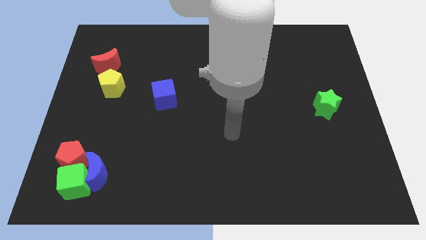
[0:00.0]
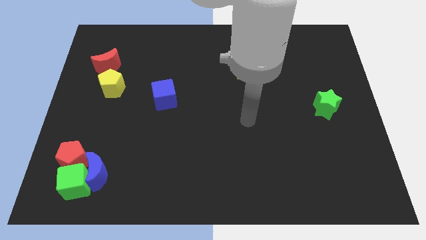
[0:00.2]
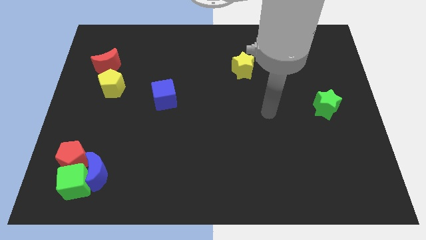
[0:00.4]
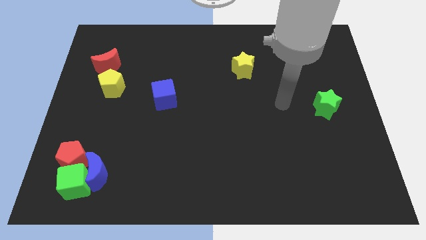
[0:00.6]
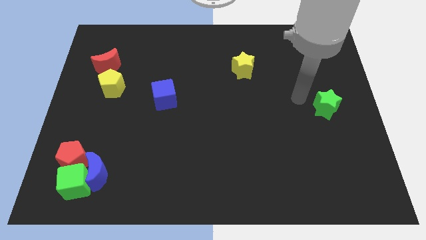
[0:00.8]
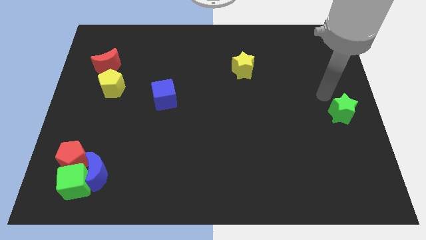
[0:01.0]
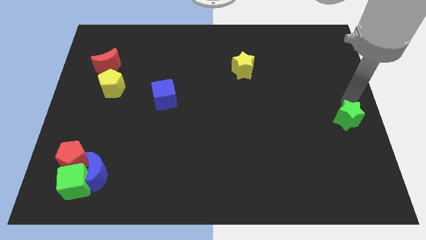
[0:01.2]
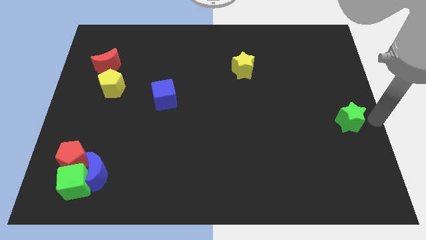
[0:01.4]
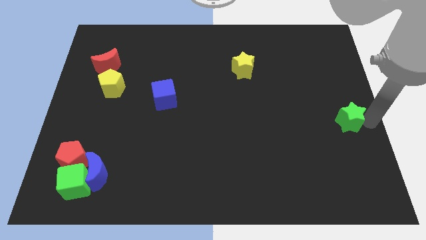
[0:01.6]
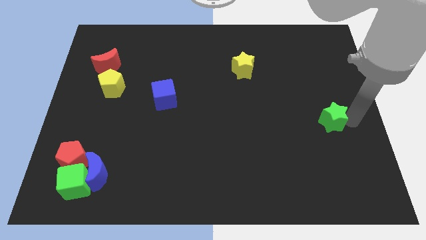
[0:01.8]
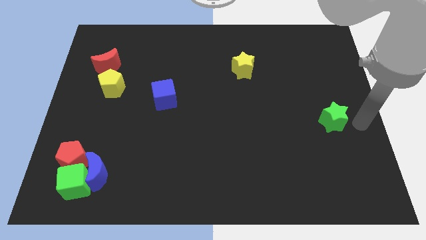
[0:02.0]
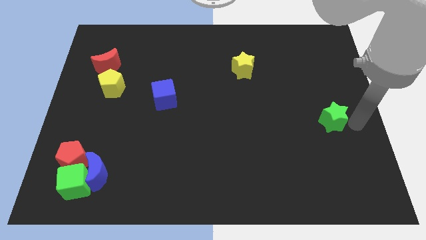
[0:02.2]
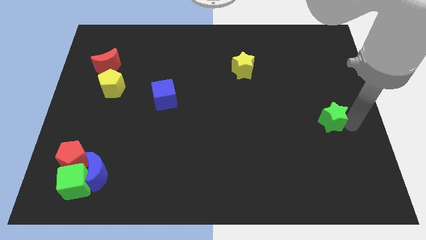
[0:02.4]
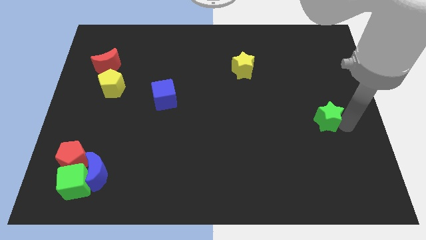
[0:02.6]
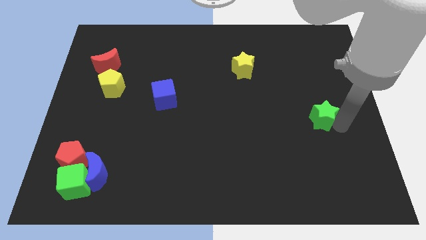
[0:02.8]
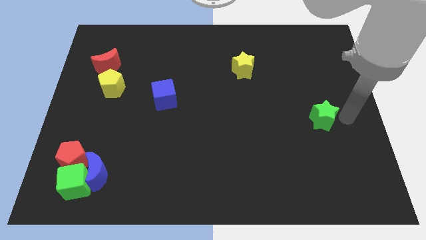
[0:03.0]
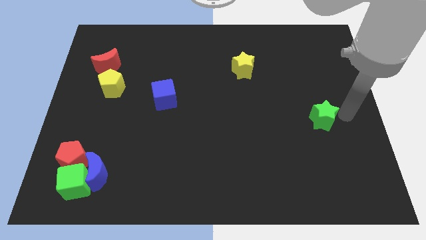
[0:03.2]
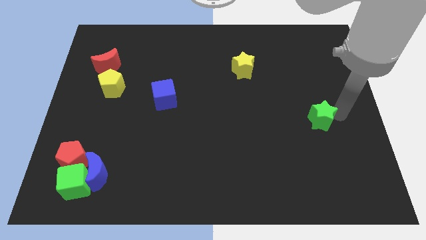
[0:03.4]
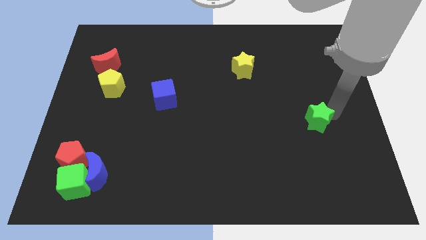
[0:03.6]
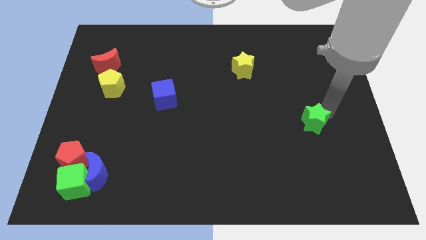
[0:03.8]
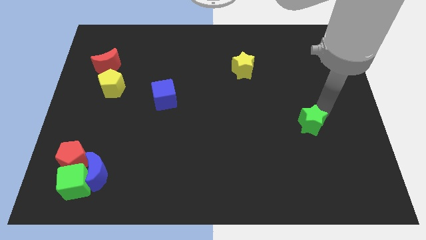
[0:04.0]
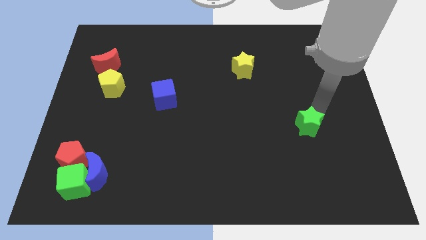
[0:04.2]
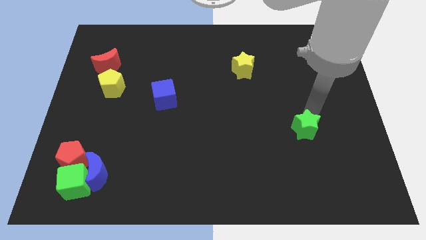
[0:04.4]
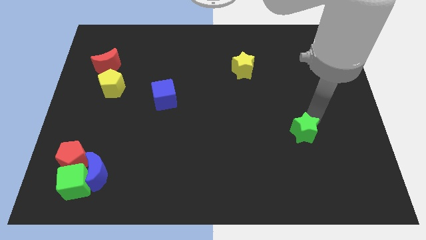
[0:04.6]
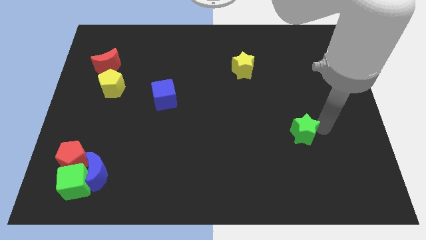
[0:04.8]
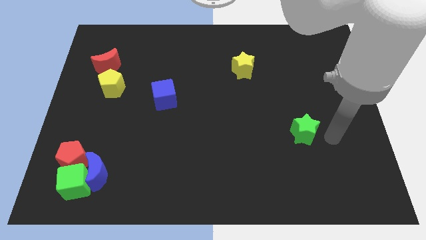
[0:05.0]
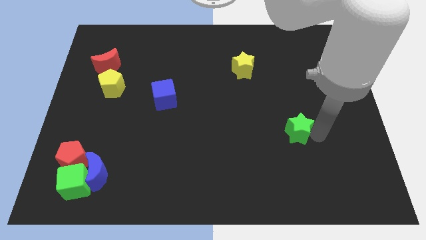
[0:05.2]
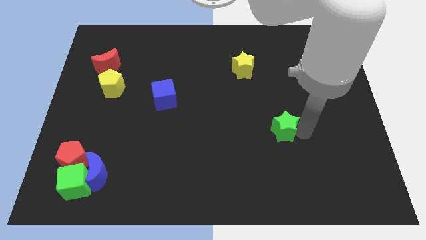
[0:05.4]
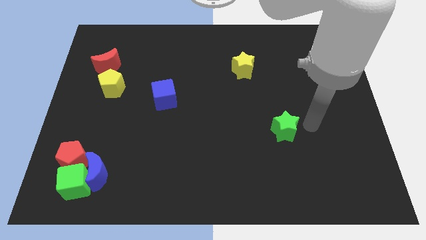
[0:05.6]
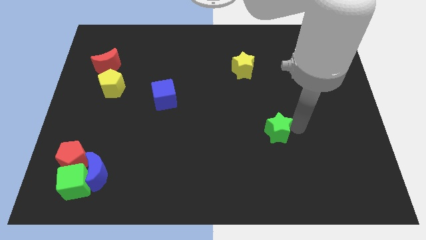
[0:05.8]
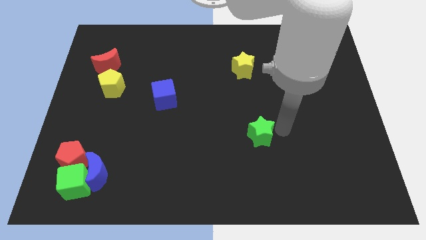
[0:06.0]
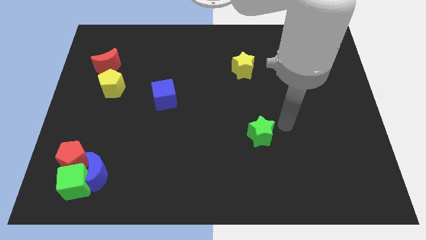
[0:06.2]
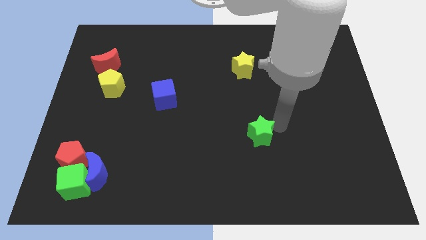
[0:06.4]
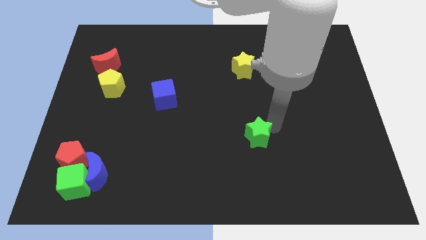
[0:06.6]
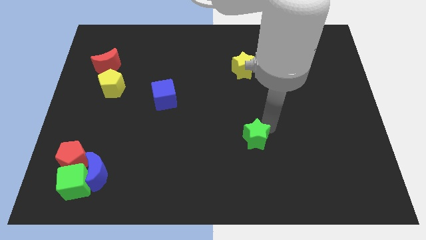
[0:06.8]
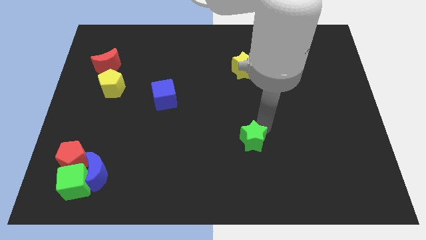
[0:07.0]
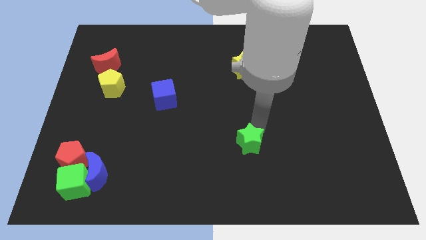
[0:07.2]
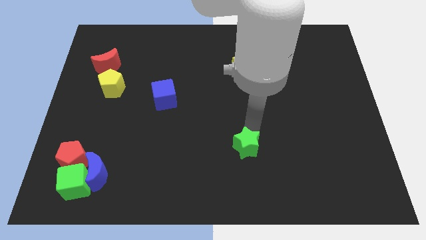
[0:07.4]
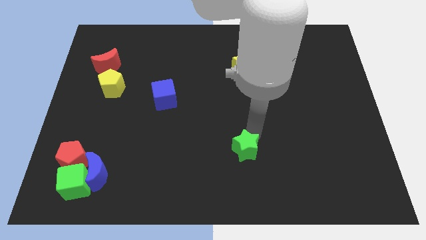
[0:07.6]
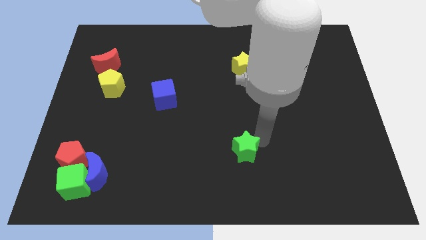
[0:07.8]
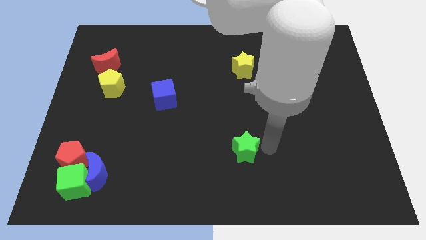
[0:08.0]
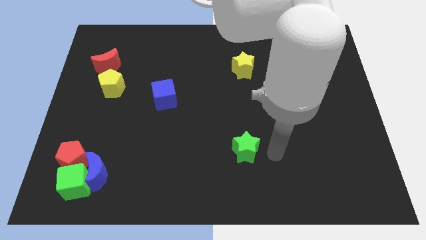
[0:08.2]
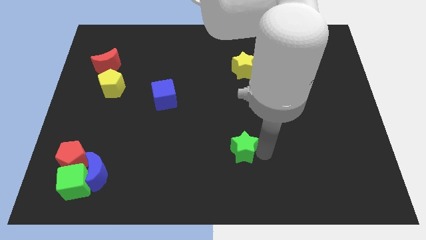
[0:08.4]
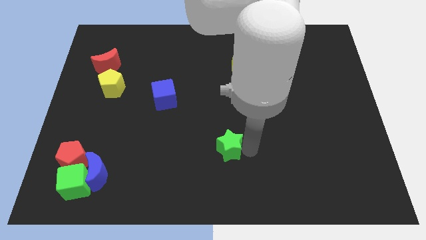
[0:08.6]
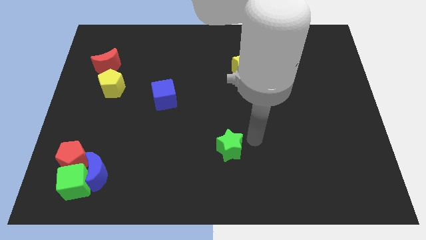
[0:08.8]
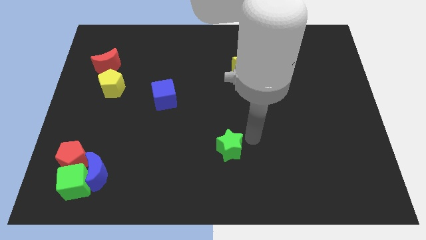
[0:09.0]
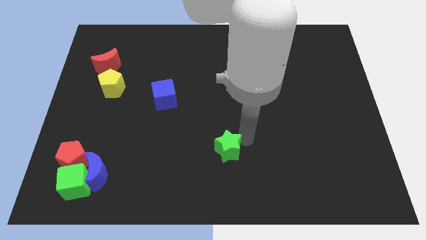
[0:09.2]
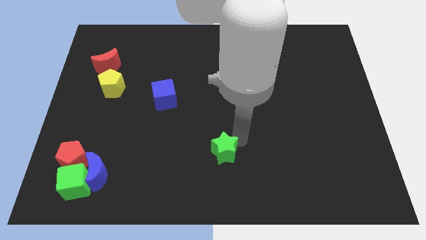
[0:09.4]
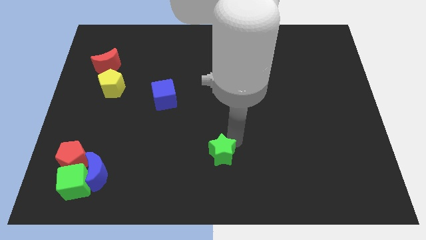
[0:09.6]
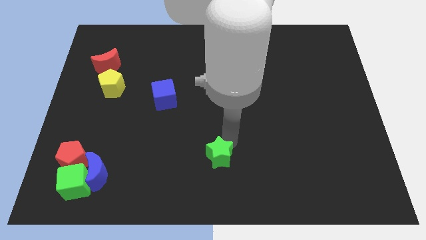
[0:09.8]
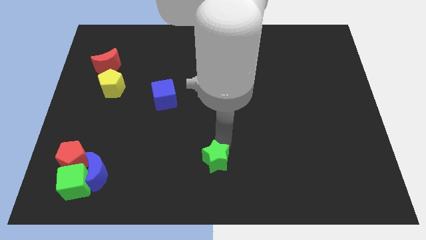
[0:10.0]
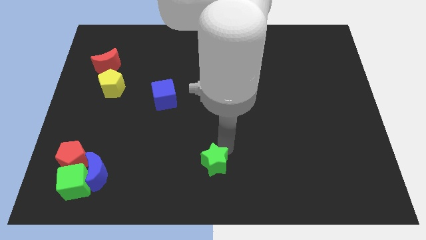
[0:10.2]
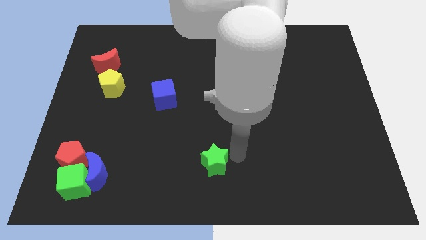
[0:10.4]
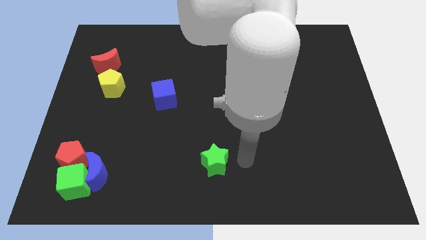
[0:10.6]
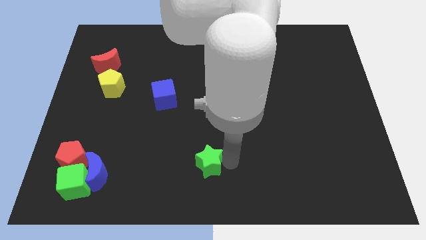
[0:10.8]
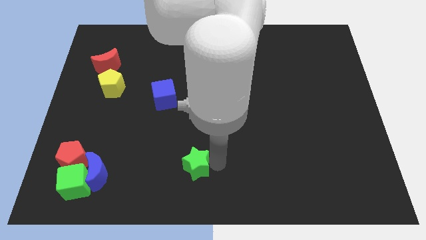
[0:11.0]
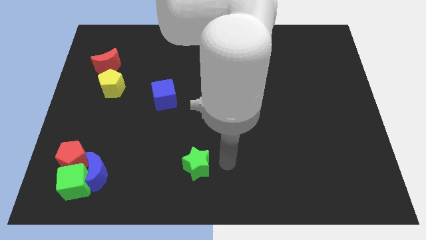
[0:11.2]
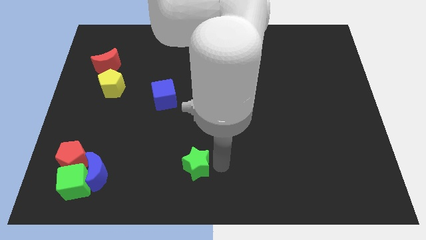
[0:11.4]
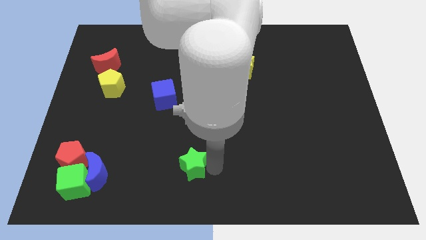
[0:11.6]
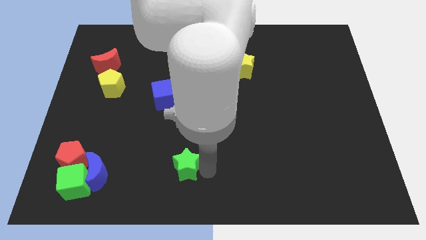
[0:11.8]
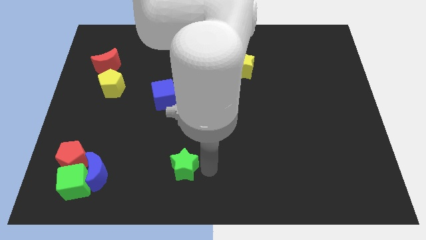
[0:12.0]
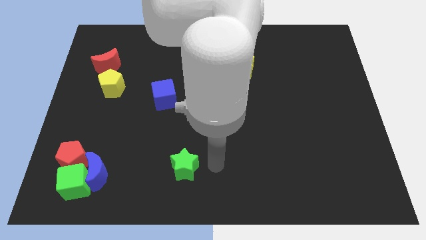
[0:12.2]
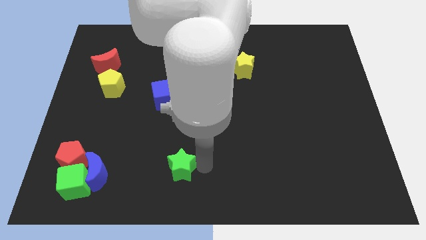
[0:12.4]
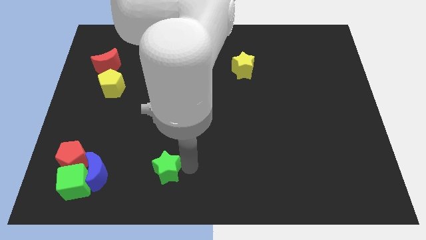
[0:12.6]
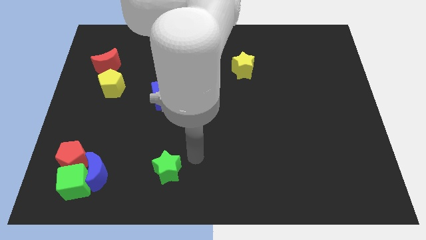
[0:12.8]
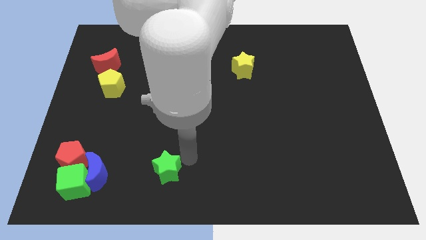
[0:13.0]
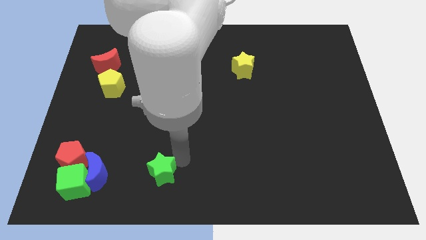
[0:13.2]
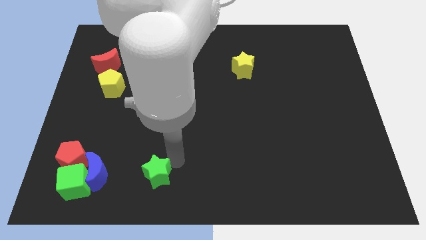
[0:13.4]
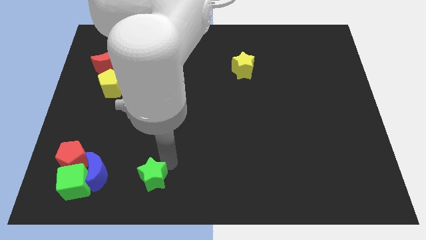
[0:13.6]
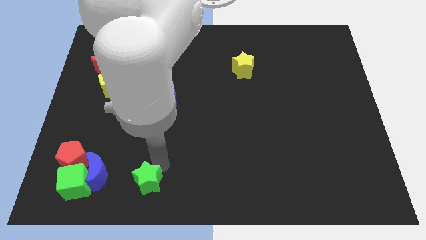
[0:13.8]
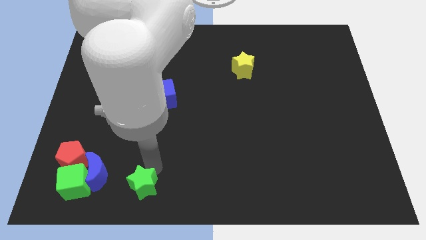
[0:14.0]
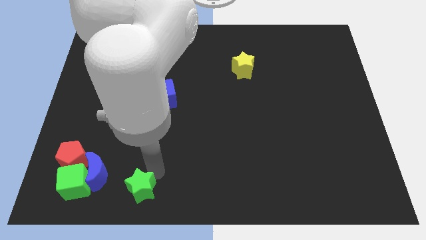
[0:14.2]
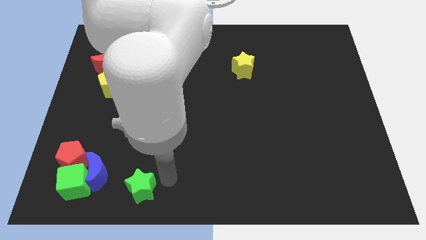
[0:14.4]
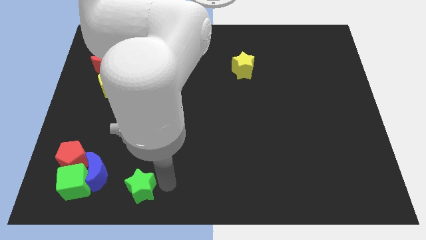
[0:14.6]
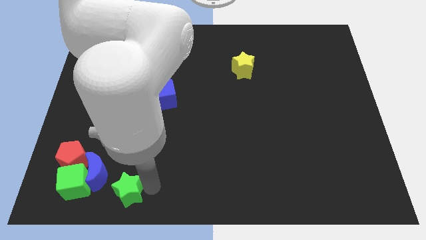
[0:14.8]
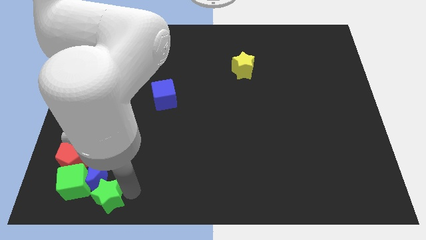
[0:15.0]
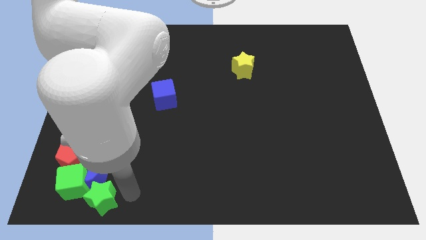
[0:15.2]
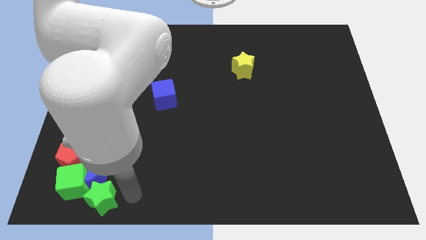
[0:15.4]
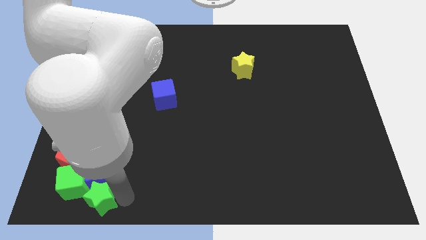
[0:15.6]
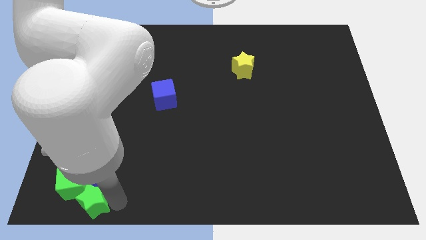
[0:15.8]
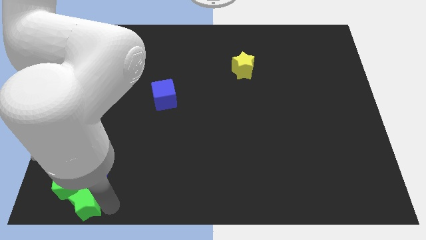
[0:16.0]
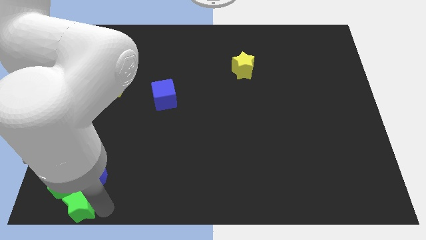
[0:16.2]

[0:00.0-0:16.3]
put the green star to the bottom left
